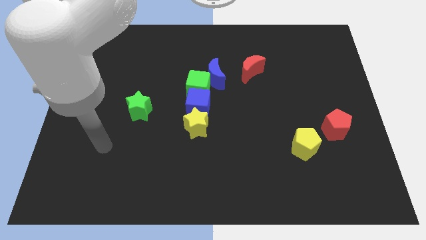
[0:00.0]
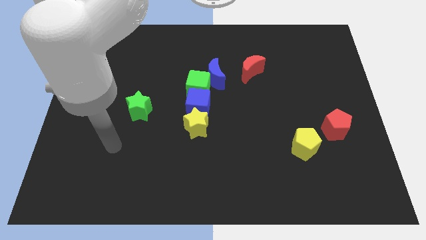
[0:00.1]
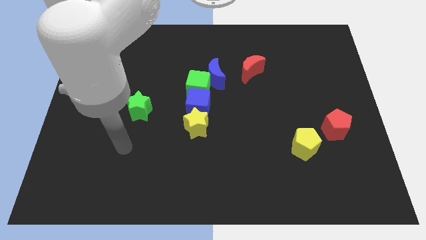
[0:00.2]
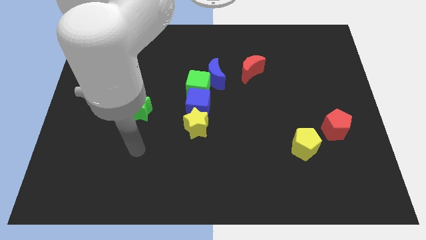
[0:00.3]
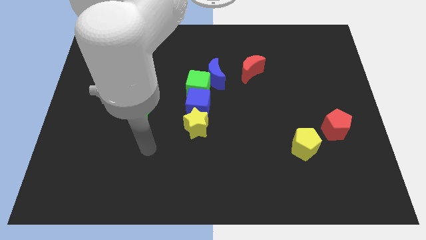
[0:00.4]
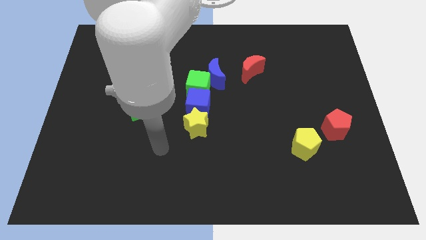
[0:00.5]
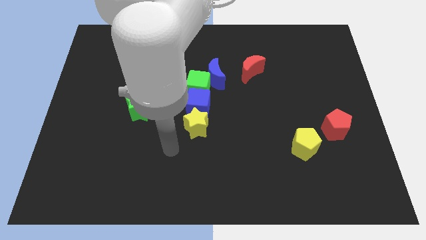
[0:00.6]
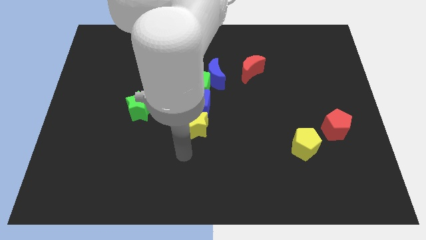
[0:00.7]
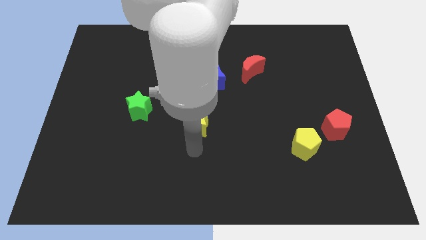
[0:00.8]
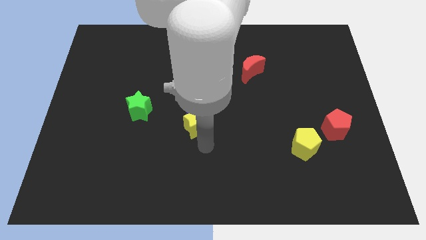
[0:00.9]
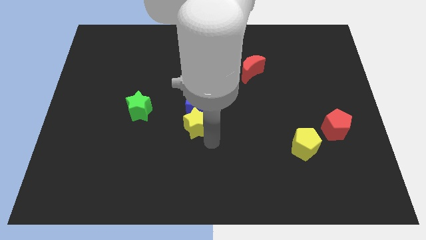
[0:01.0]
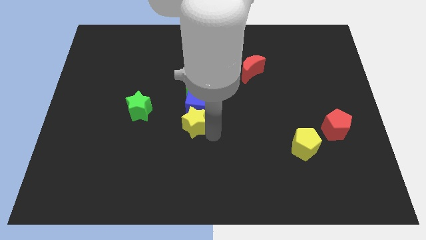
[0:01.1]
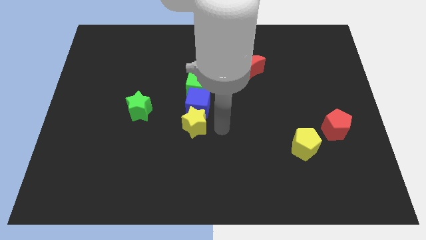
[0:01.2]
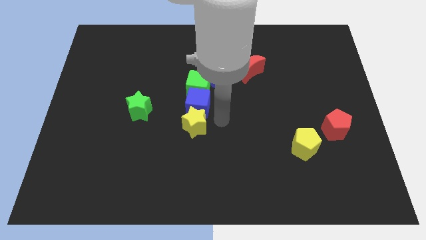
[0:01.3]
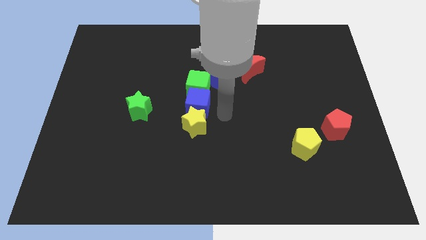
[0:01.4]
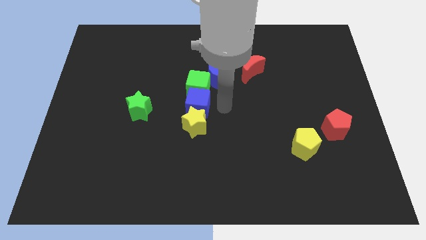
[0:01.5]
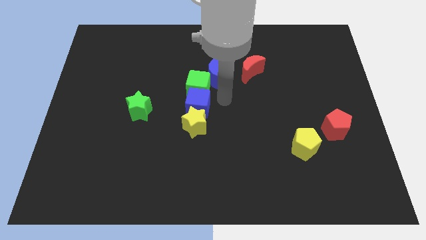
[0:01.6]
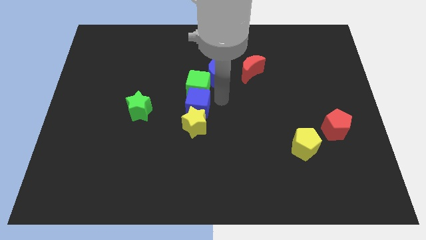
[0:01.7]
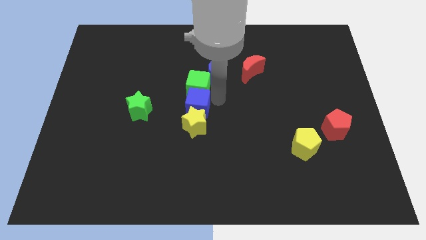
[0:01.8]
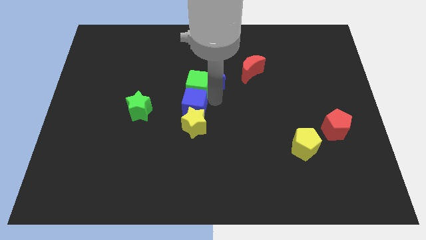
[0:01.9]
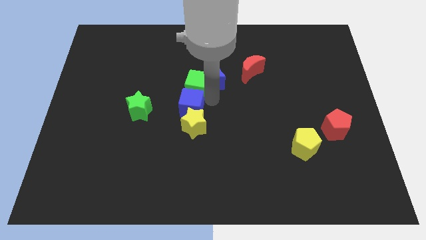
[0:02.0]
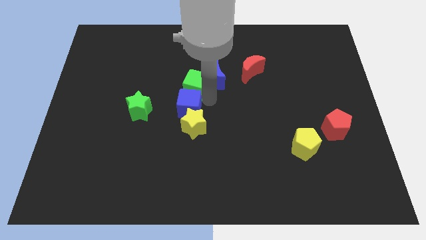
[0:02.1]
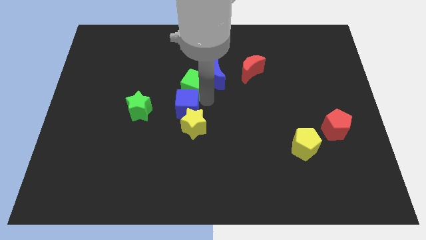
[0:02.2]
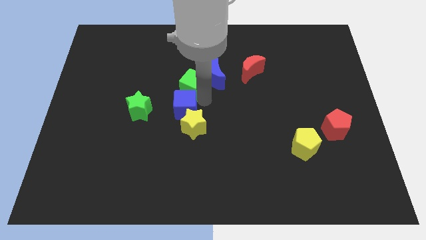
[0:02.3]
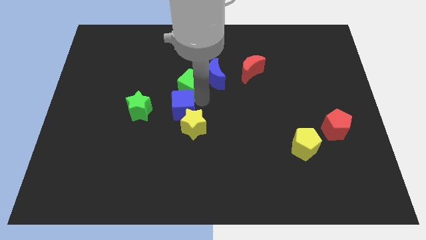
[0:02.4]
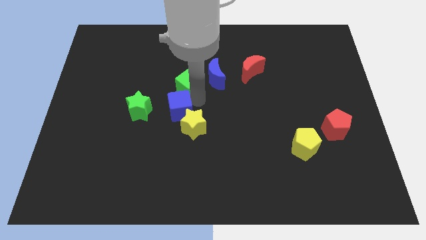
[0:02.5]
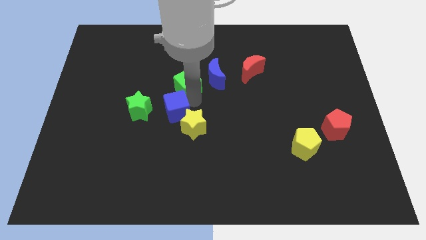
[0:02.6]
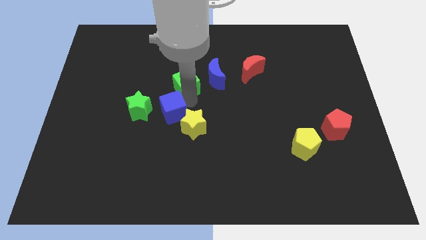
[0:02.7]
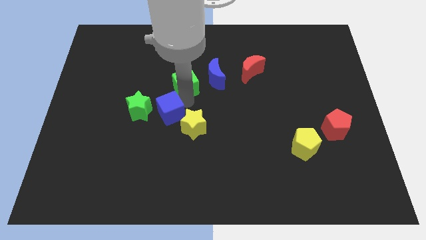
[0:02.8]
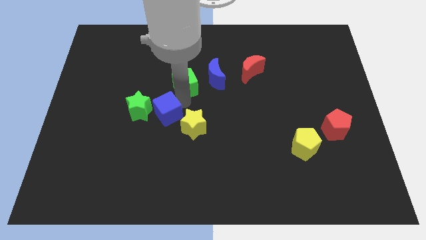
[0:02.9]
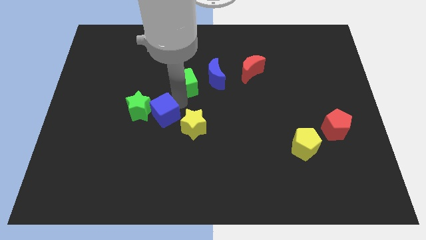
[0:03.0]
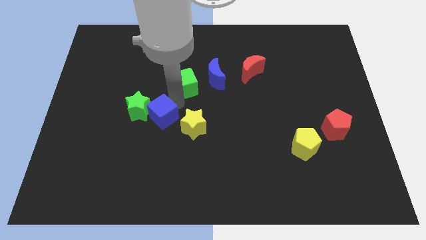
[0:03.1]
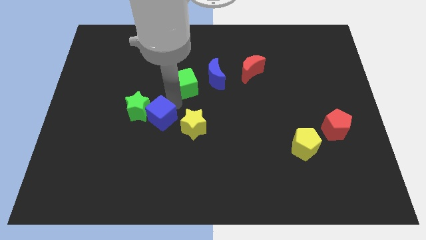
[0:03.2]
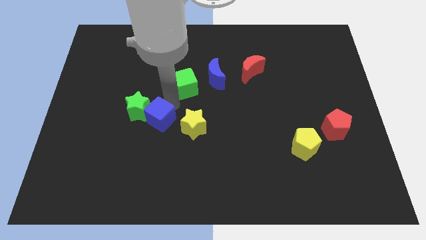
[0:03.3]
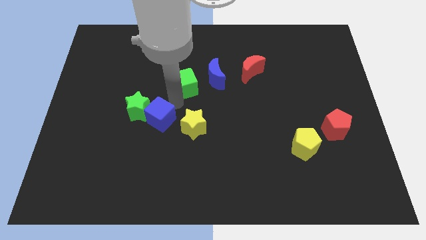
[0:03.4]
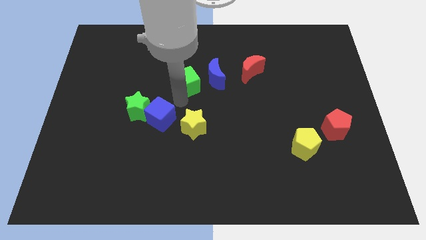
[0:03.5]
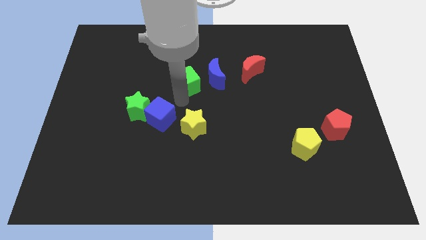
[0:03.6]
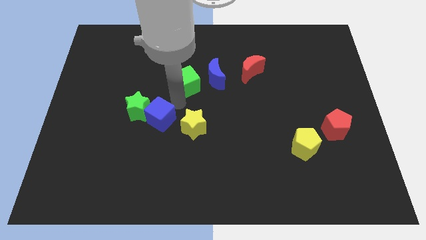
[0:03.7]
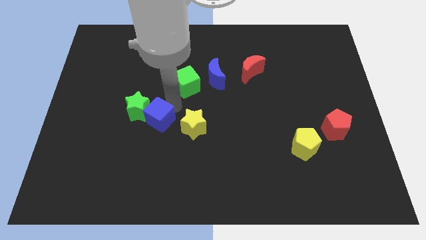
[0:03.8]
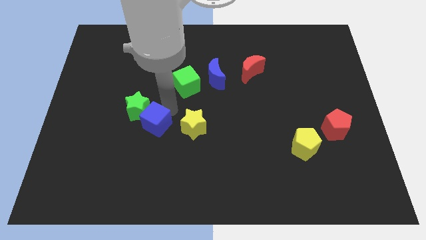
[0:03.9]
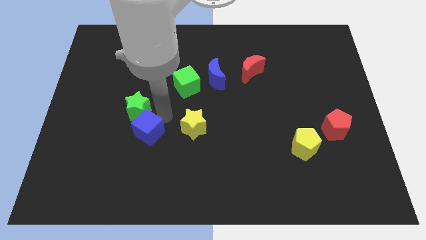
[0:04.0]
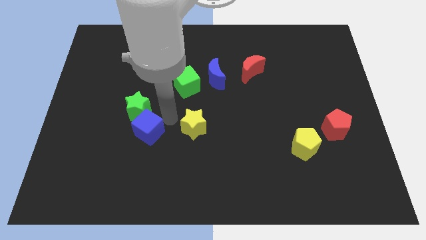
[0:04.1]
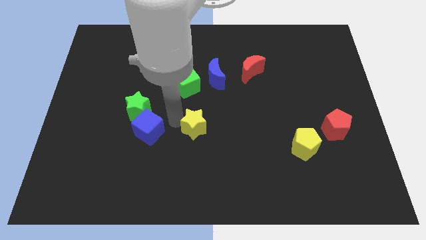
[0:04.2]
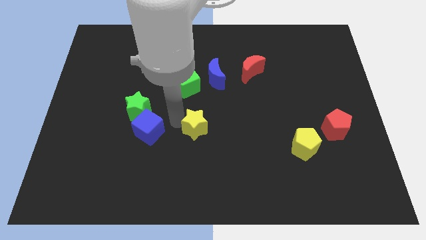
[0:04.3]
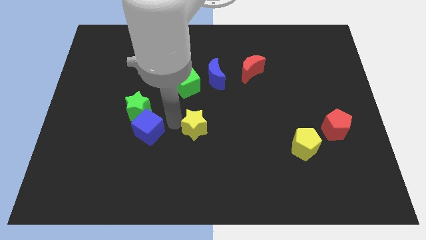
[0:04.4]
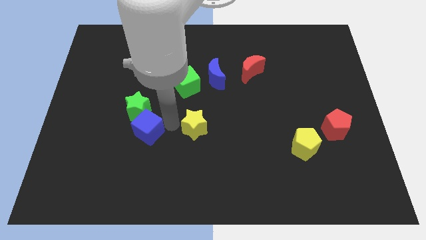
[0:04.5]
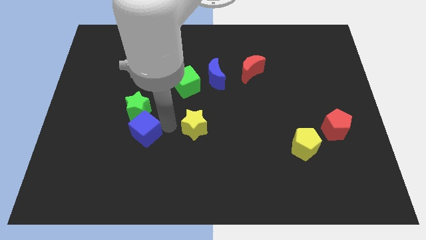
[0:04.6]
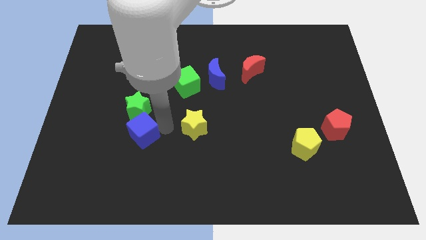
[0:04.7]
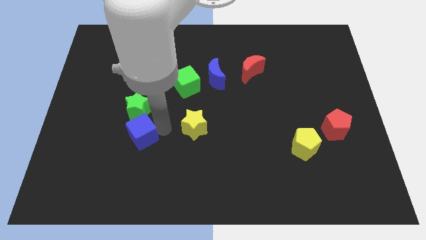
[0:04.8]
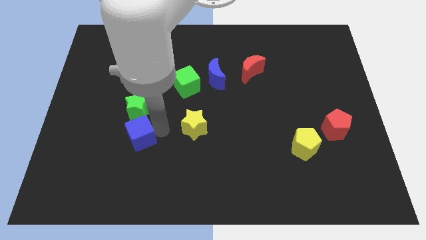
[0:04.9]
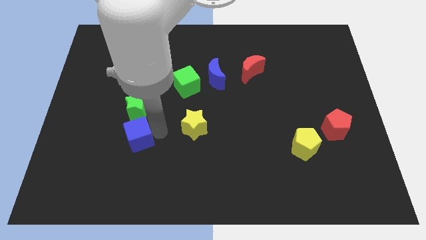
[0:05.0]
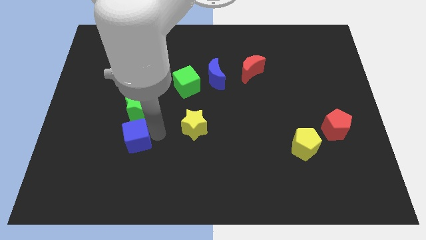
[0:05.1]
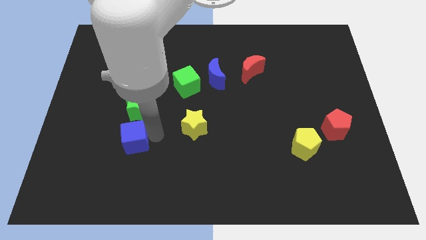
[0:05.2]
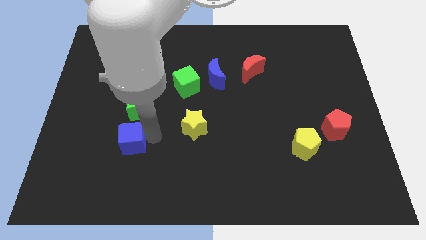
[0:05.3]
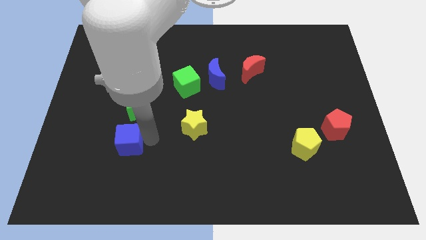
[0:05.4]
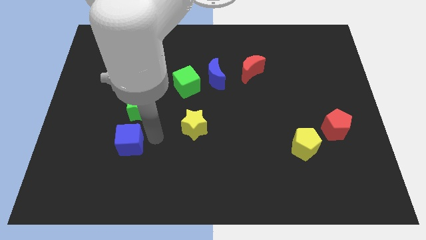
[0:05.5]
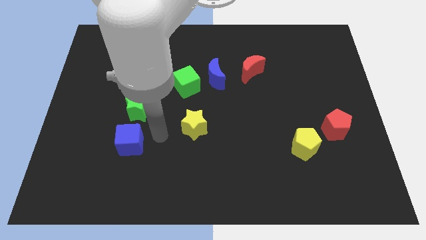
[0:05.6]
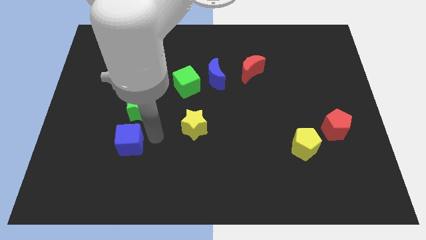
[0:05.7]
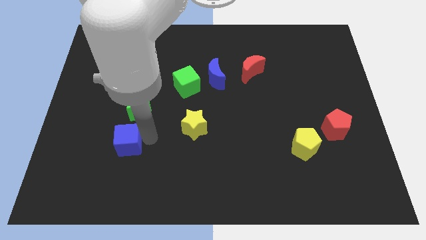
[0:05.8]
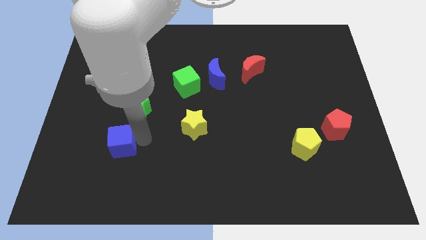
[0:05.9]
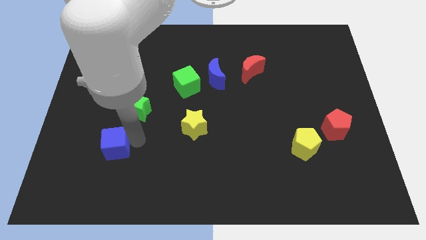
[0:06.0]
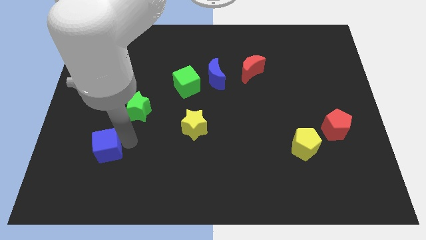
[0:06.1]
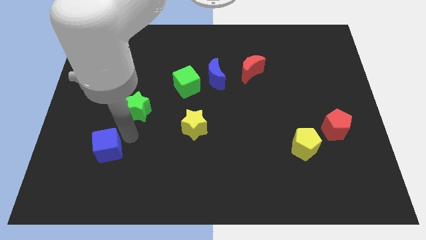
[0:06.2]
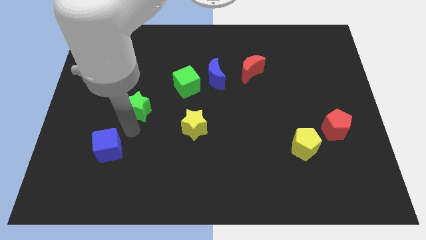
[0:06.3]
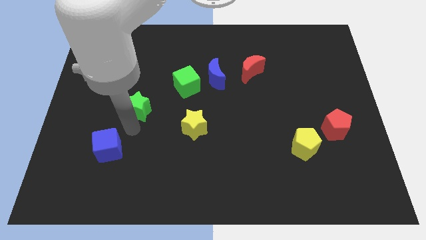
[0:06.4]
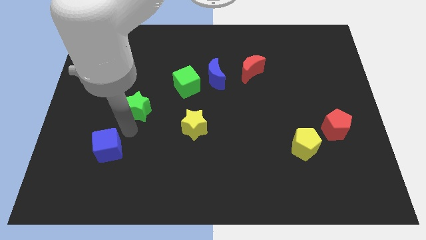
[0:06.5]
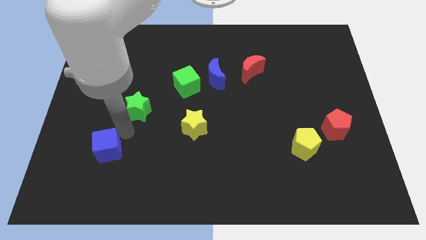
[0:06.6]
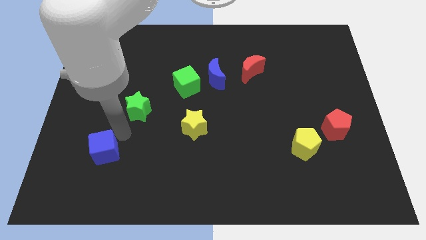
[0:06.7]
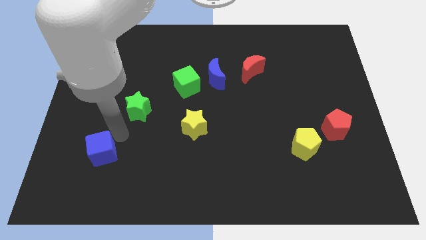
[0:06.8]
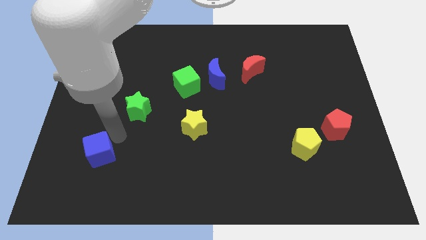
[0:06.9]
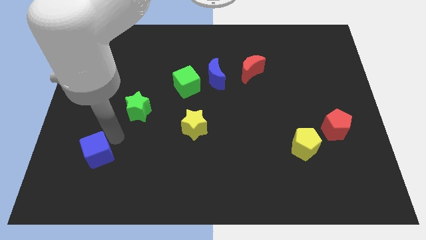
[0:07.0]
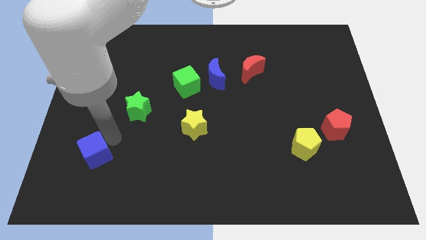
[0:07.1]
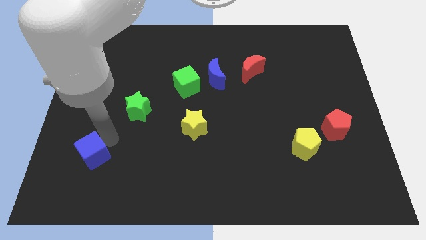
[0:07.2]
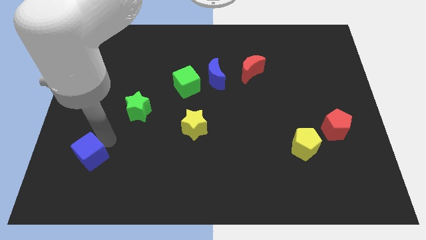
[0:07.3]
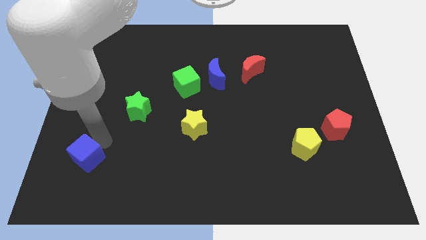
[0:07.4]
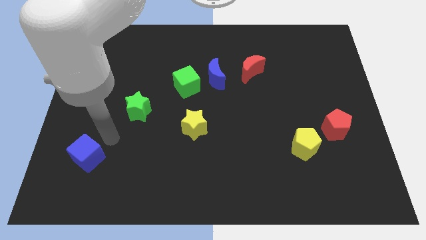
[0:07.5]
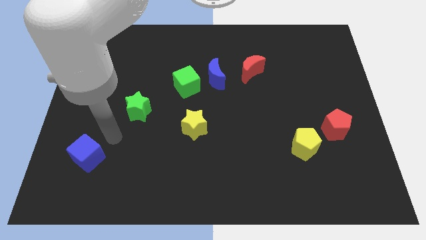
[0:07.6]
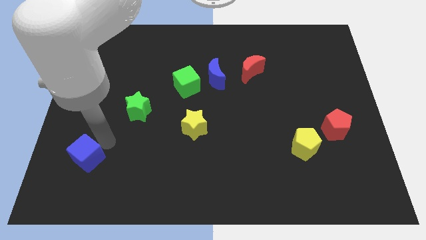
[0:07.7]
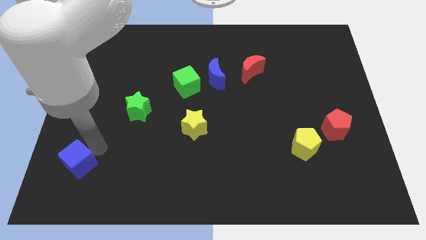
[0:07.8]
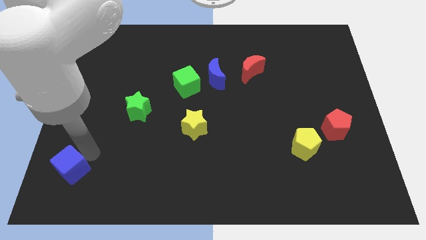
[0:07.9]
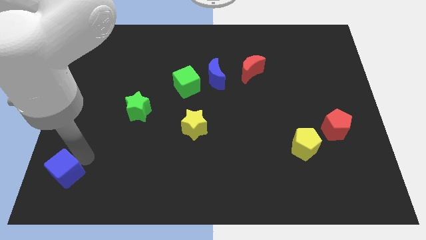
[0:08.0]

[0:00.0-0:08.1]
move the blue cube to the lower left corner
